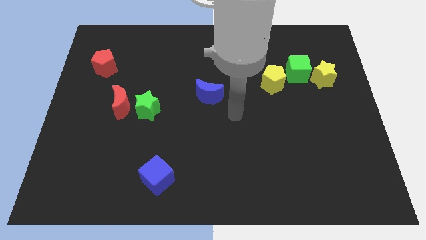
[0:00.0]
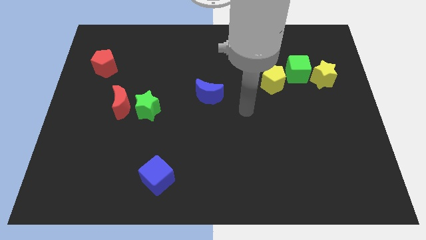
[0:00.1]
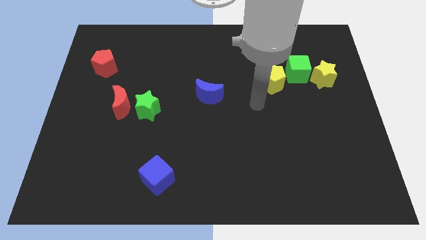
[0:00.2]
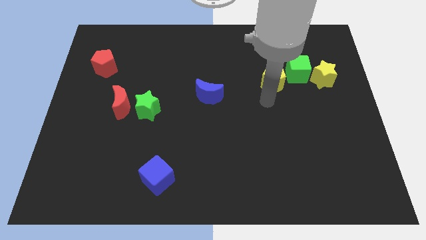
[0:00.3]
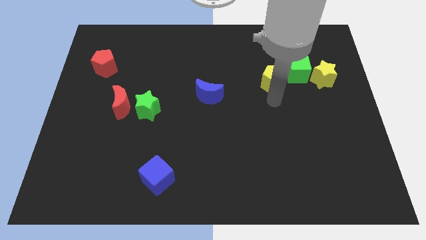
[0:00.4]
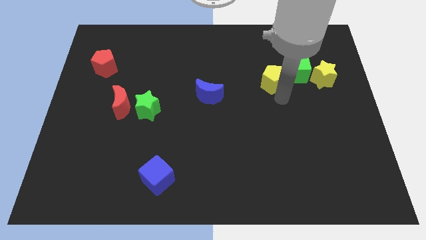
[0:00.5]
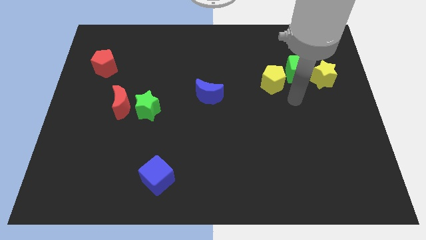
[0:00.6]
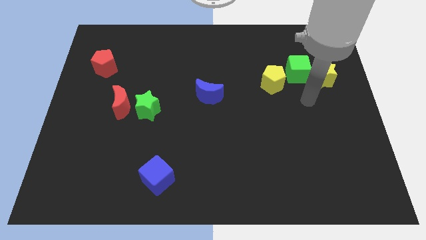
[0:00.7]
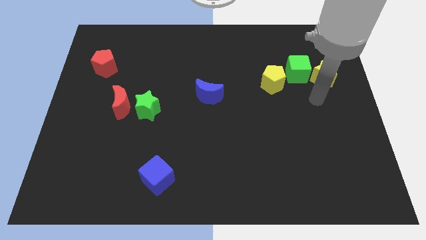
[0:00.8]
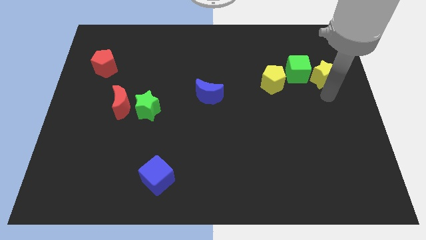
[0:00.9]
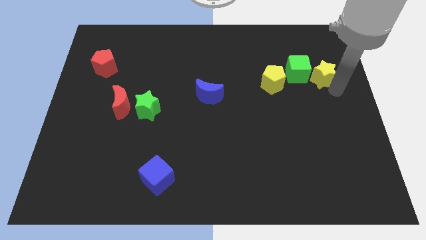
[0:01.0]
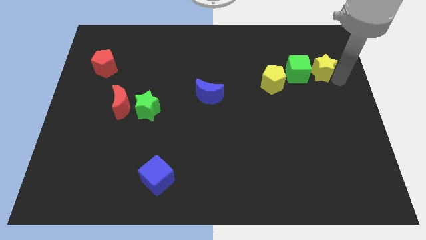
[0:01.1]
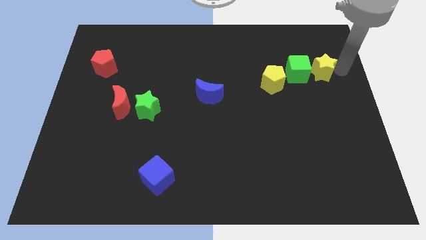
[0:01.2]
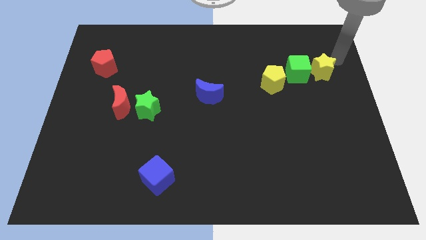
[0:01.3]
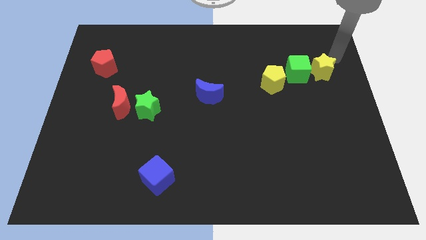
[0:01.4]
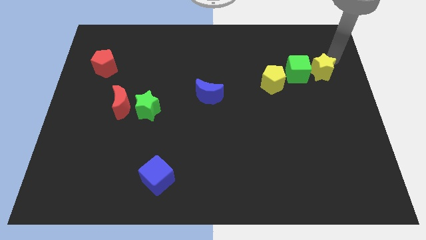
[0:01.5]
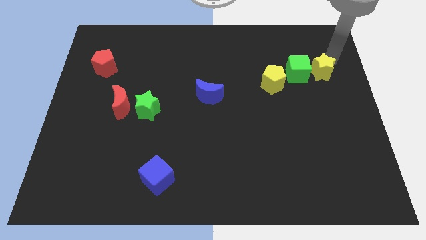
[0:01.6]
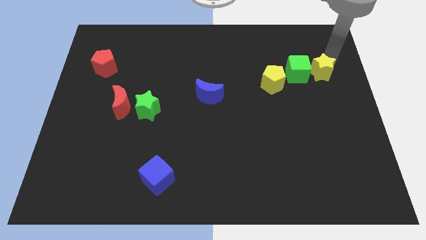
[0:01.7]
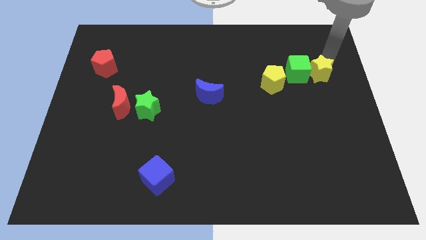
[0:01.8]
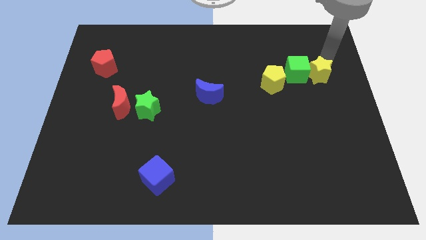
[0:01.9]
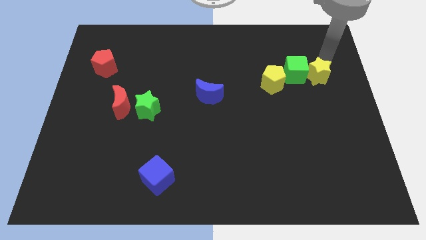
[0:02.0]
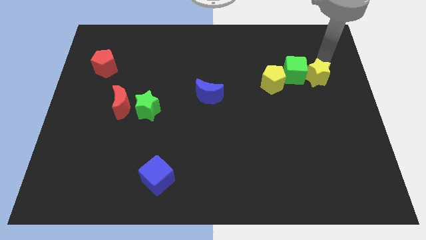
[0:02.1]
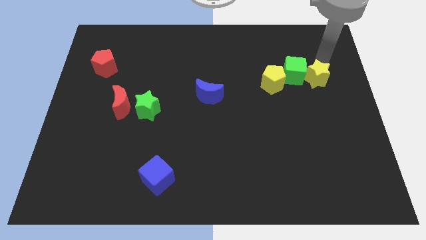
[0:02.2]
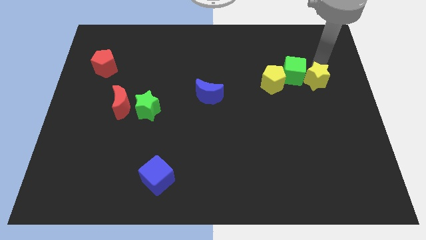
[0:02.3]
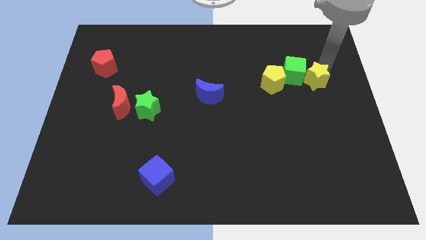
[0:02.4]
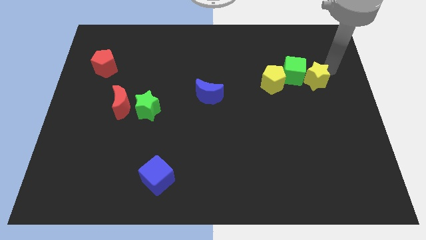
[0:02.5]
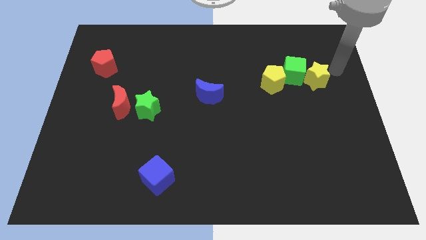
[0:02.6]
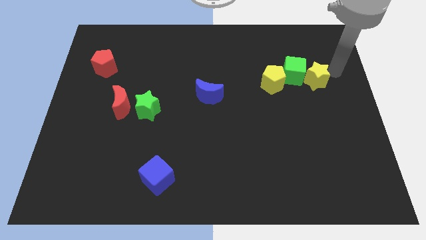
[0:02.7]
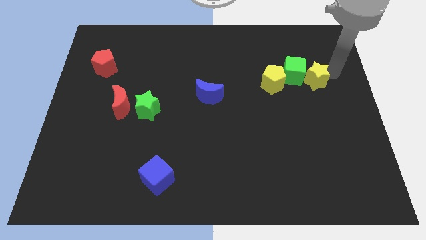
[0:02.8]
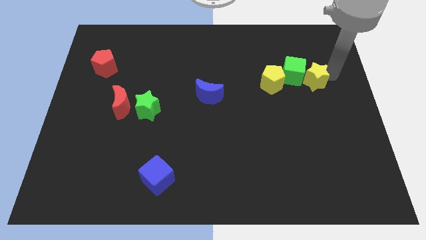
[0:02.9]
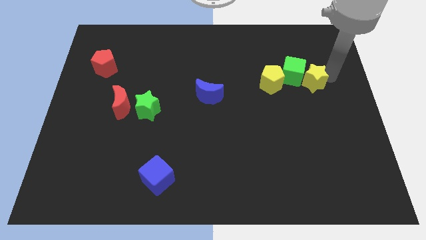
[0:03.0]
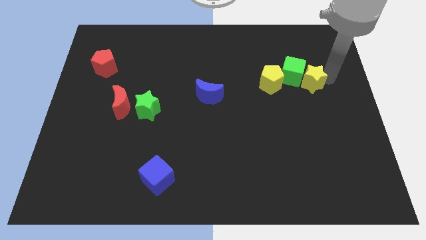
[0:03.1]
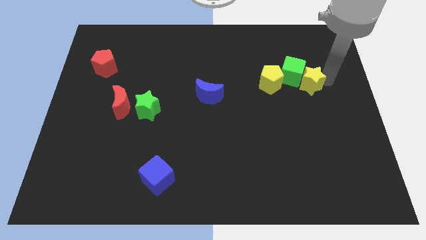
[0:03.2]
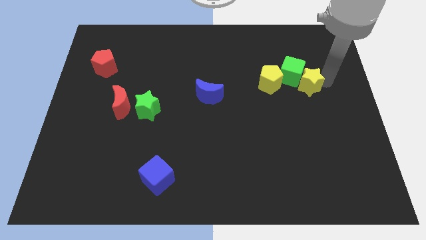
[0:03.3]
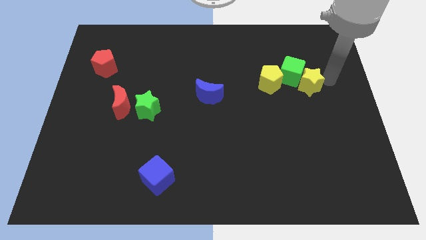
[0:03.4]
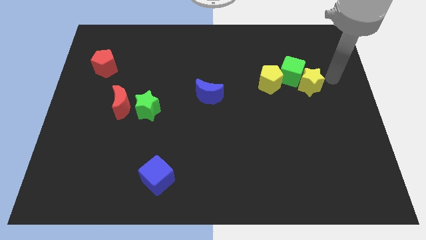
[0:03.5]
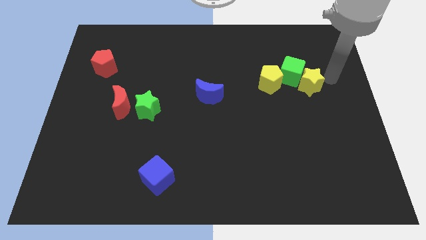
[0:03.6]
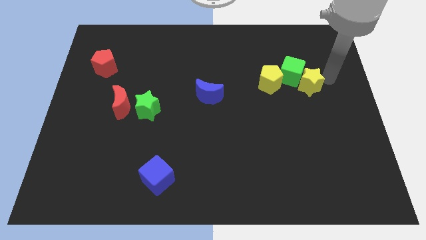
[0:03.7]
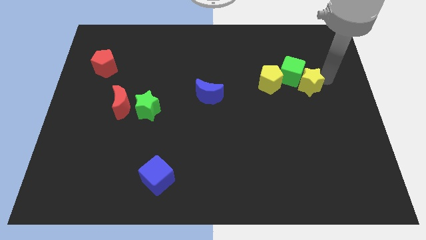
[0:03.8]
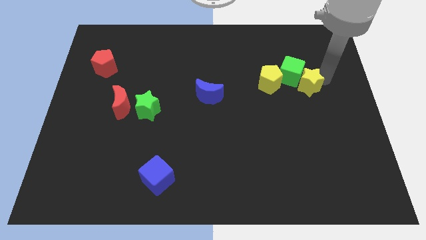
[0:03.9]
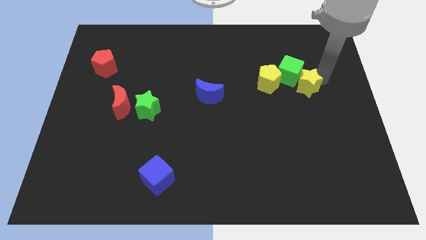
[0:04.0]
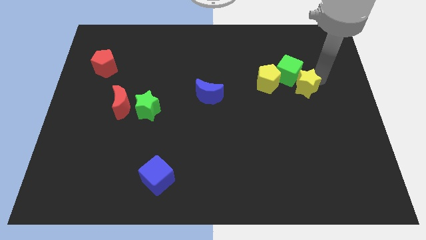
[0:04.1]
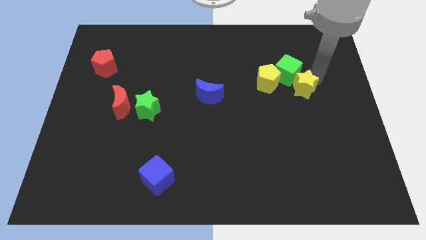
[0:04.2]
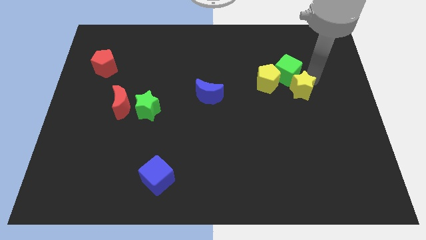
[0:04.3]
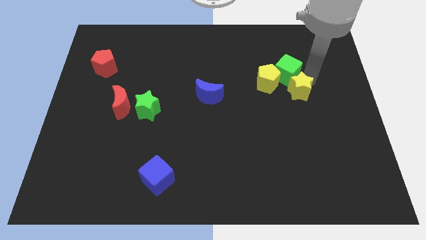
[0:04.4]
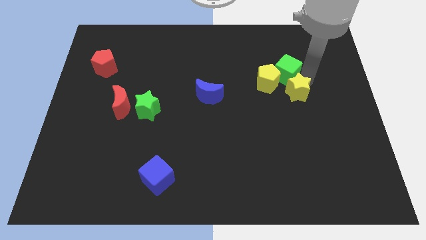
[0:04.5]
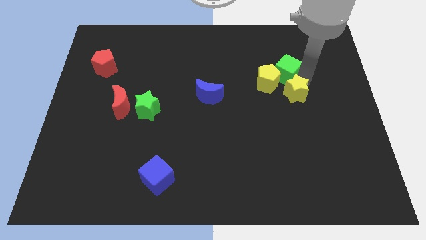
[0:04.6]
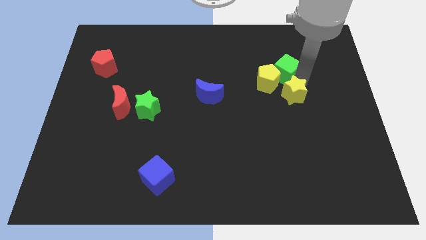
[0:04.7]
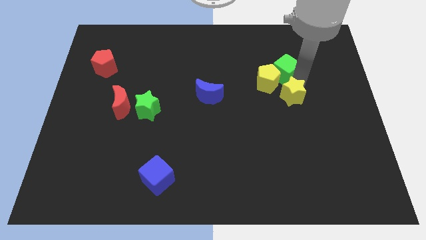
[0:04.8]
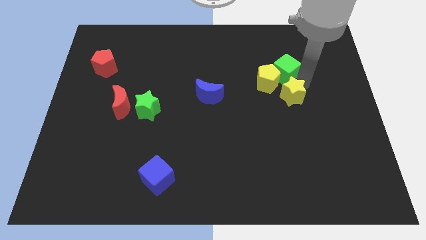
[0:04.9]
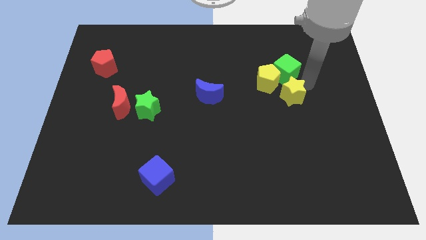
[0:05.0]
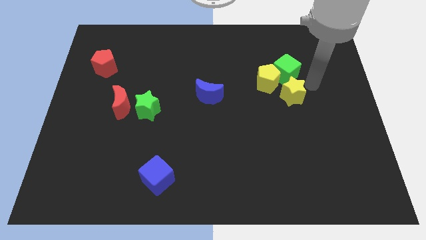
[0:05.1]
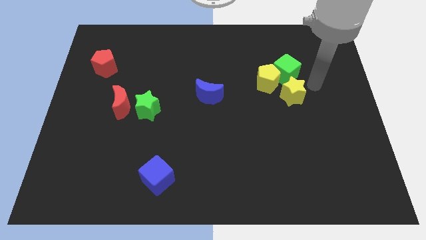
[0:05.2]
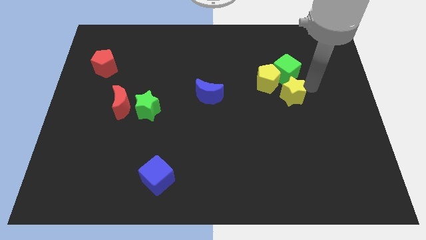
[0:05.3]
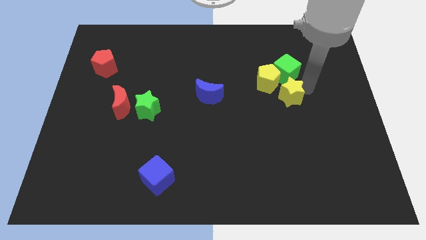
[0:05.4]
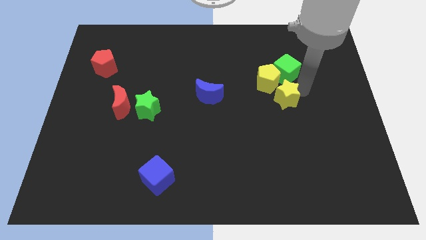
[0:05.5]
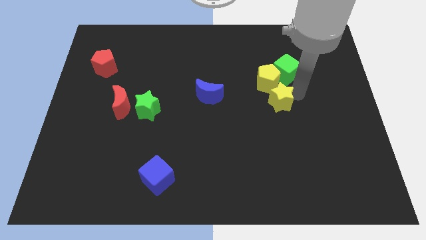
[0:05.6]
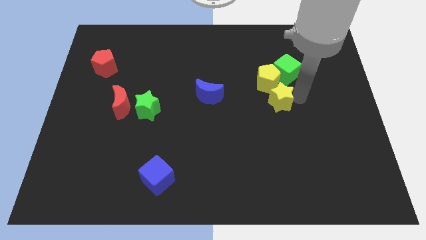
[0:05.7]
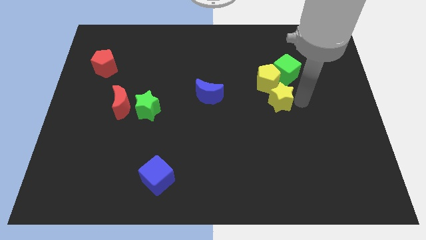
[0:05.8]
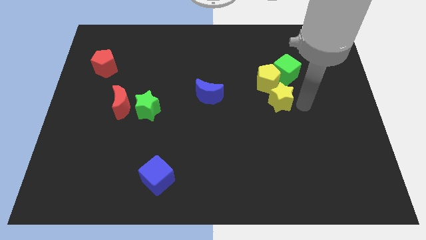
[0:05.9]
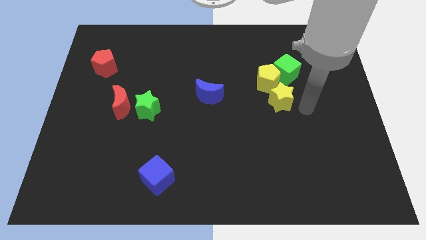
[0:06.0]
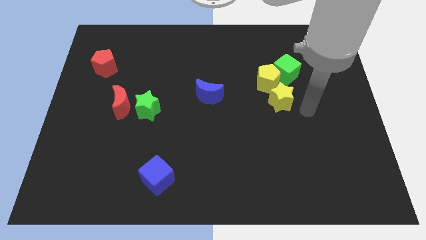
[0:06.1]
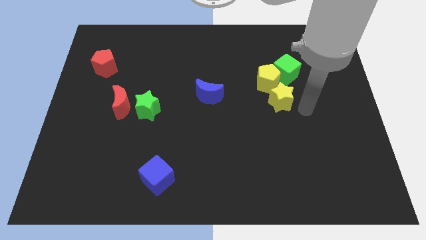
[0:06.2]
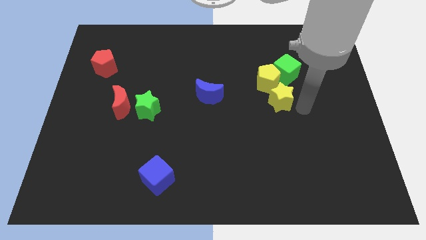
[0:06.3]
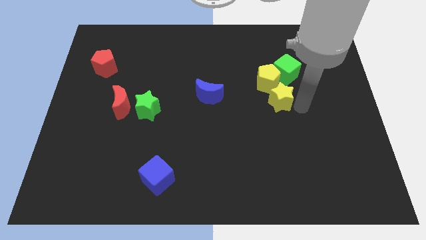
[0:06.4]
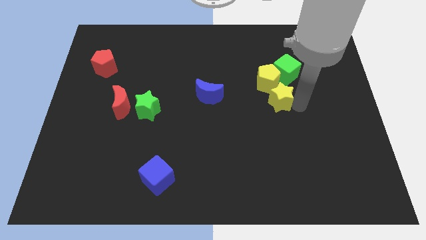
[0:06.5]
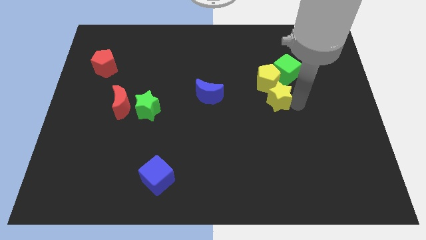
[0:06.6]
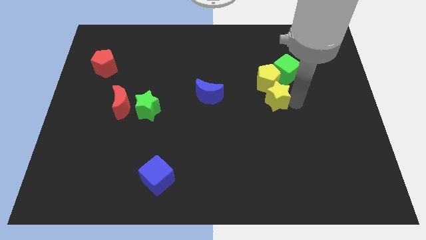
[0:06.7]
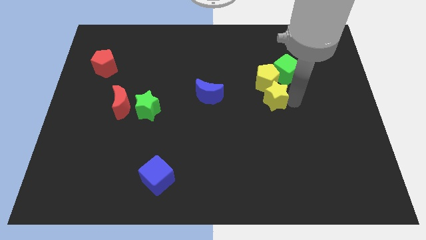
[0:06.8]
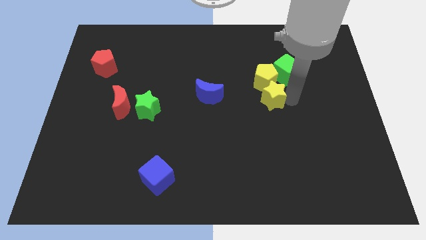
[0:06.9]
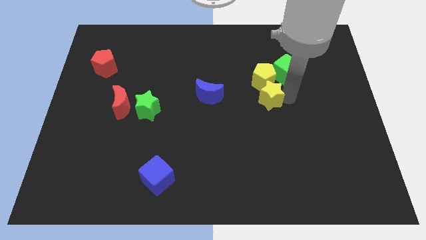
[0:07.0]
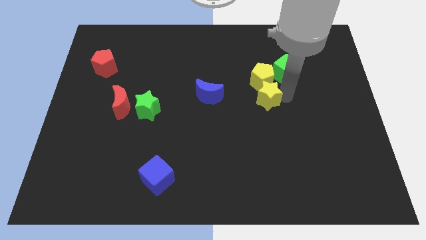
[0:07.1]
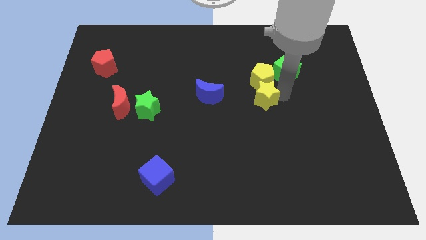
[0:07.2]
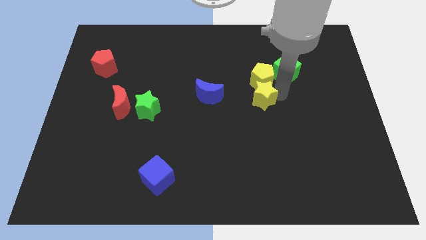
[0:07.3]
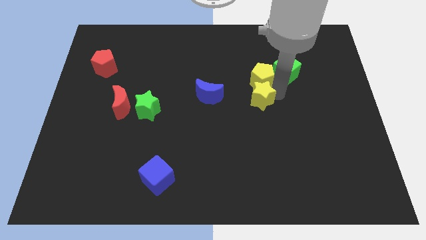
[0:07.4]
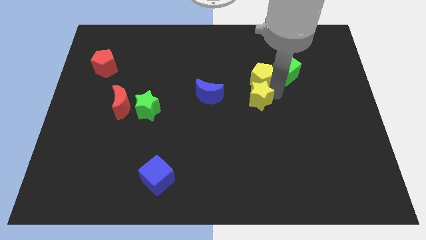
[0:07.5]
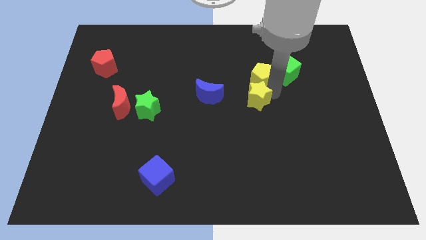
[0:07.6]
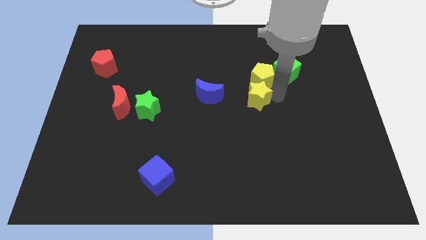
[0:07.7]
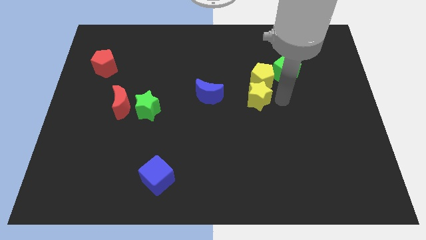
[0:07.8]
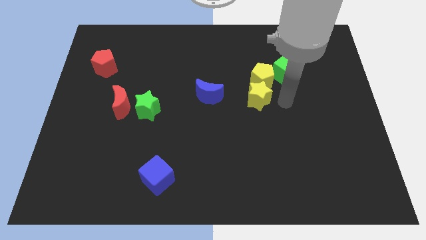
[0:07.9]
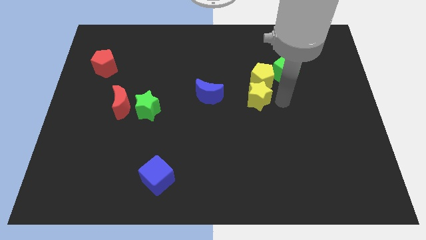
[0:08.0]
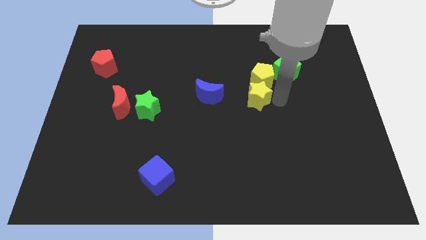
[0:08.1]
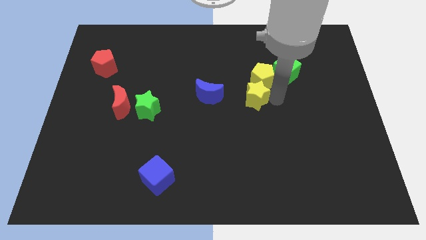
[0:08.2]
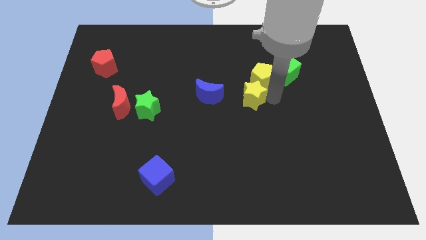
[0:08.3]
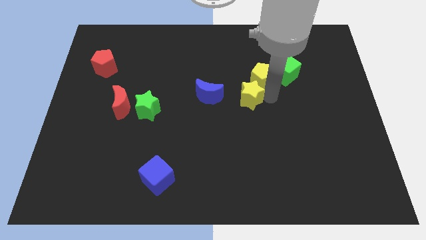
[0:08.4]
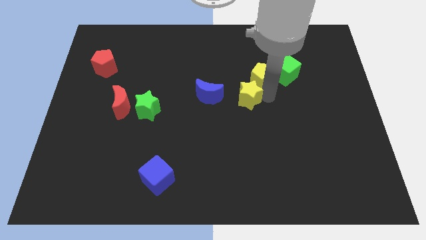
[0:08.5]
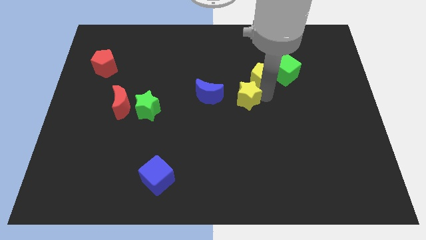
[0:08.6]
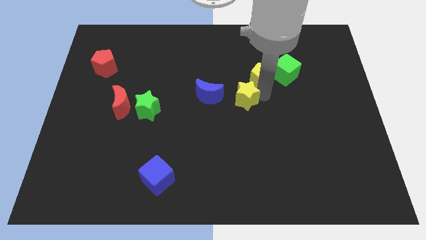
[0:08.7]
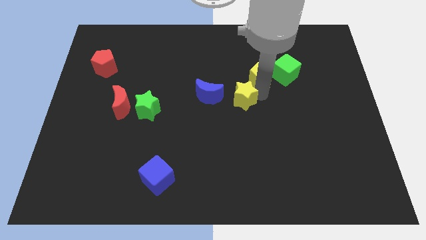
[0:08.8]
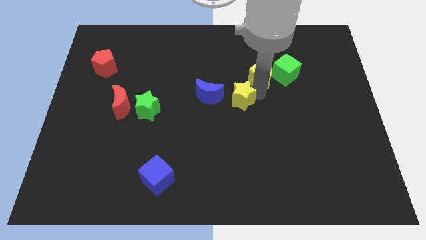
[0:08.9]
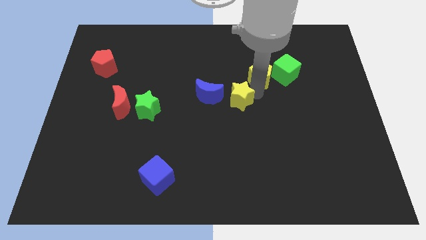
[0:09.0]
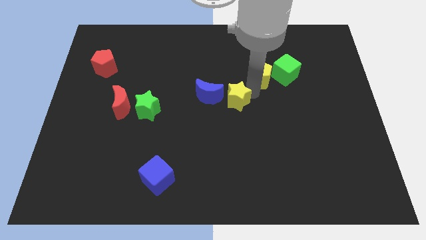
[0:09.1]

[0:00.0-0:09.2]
move the yellow star left
